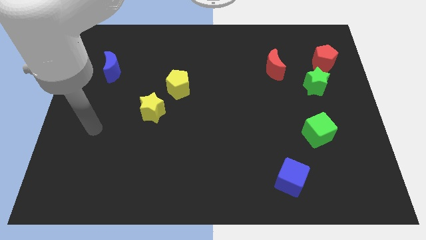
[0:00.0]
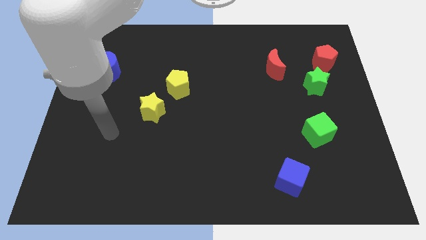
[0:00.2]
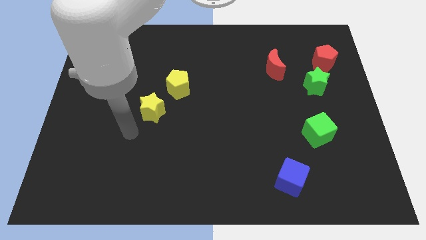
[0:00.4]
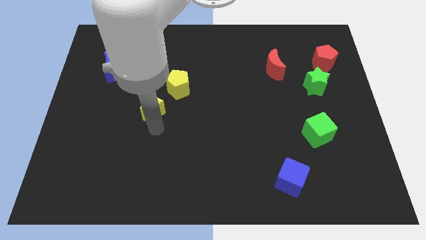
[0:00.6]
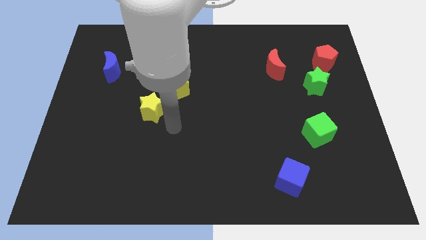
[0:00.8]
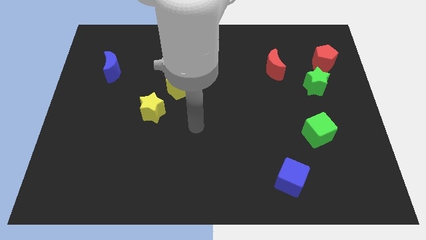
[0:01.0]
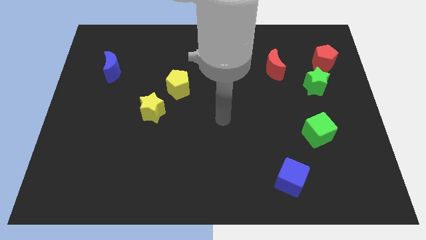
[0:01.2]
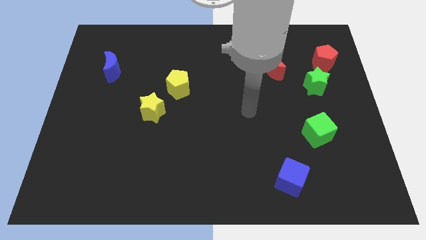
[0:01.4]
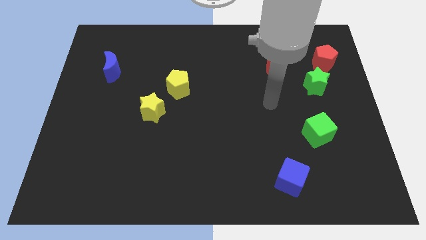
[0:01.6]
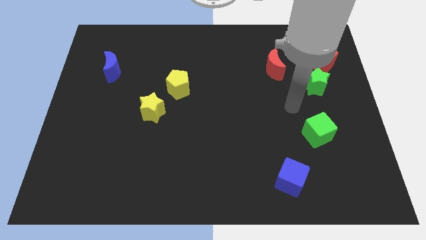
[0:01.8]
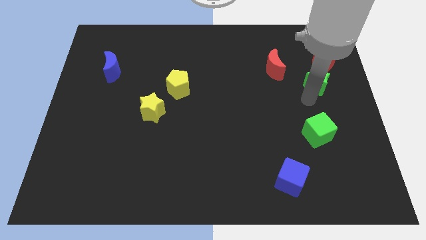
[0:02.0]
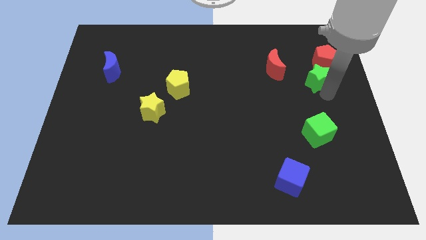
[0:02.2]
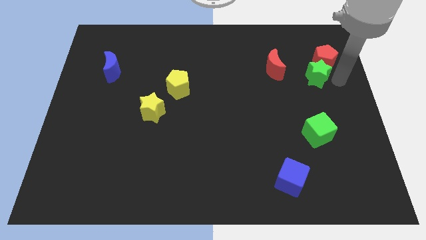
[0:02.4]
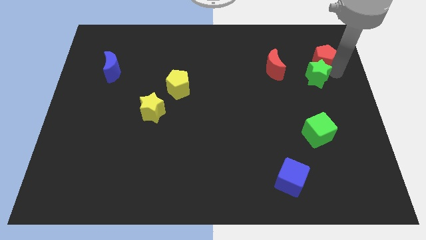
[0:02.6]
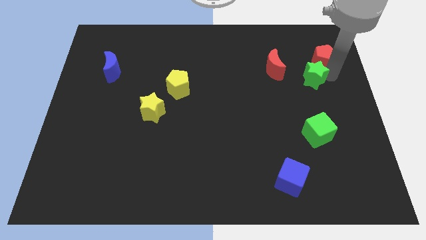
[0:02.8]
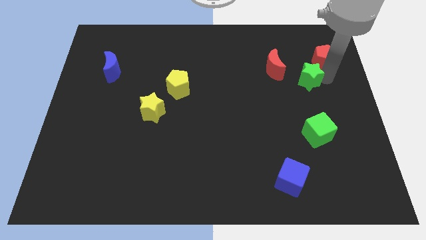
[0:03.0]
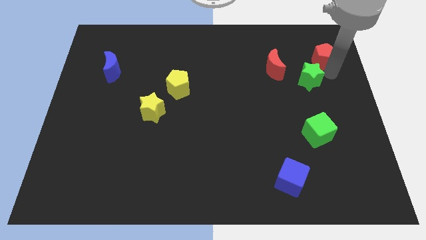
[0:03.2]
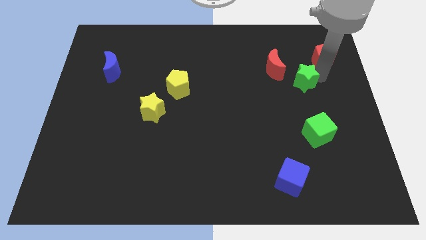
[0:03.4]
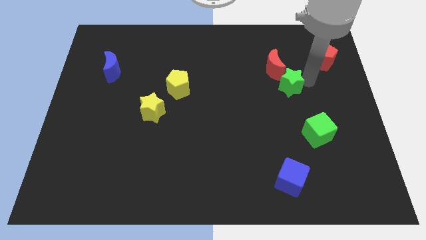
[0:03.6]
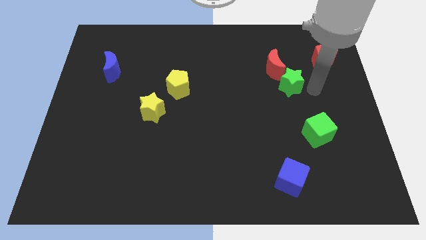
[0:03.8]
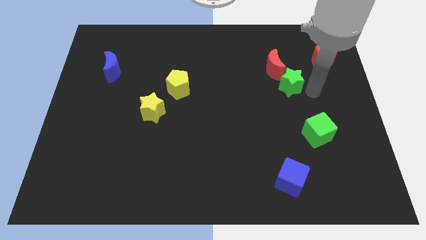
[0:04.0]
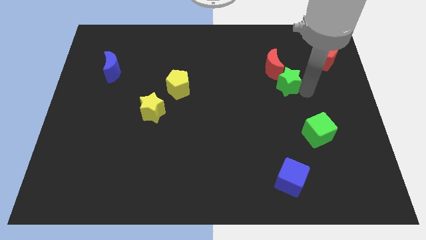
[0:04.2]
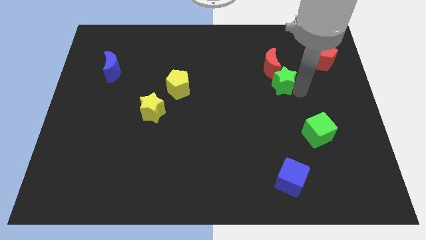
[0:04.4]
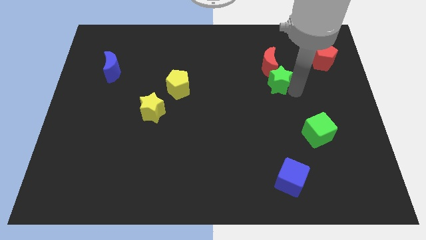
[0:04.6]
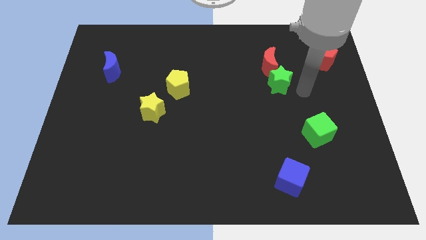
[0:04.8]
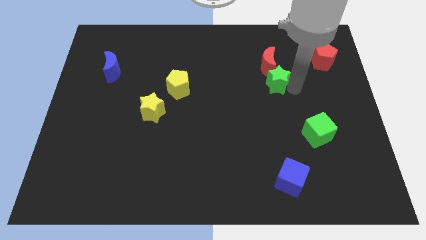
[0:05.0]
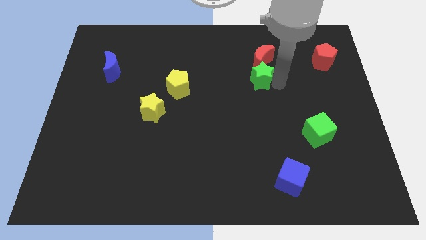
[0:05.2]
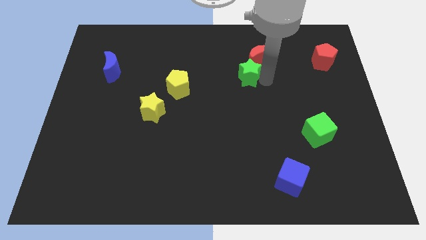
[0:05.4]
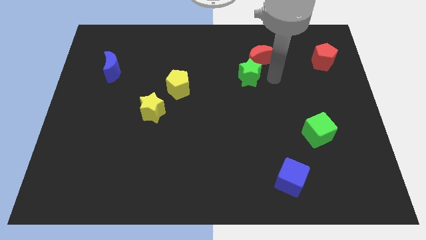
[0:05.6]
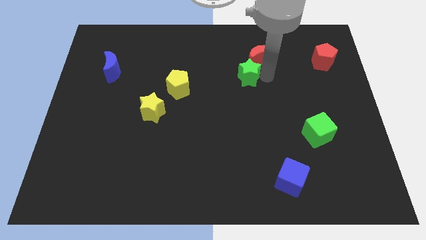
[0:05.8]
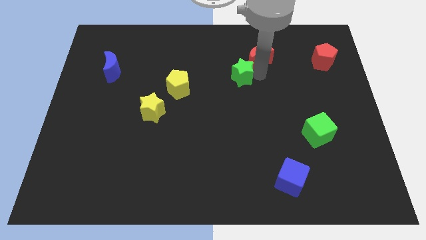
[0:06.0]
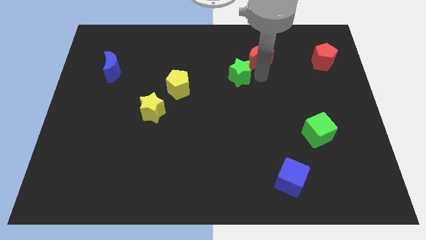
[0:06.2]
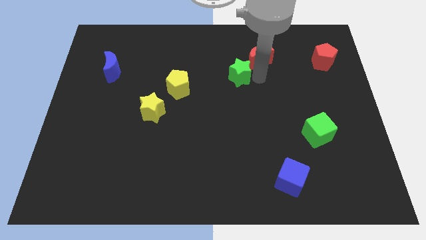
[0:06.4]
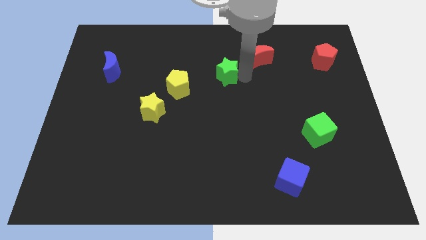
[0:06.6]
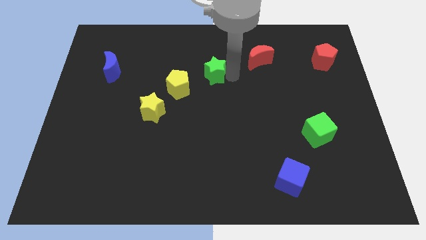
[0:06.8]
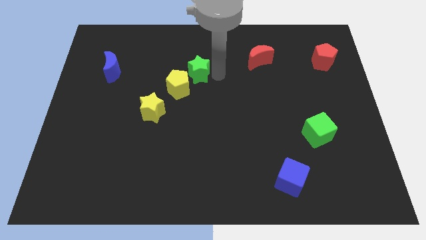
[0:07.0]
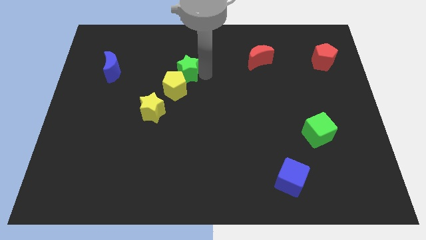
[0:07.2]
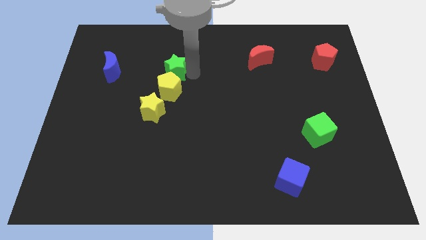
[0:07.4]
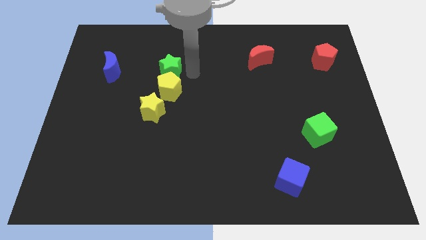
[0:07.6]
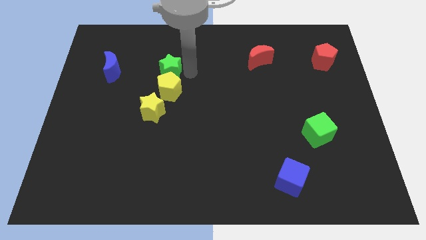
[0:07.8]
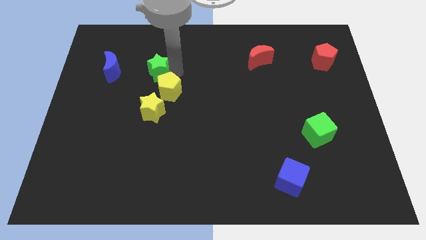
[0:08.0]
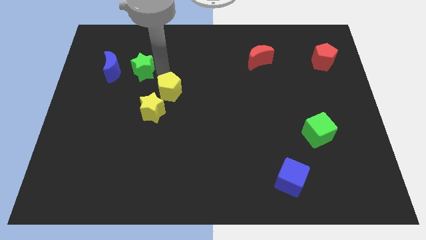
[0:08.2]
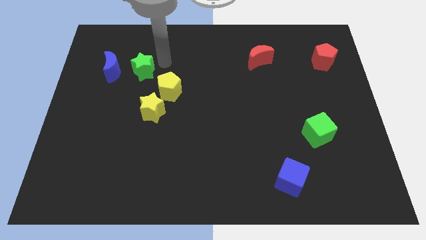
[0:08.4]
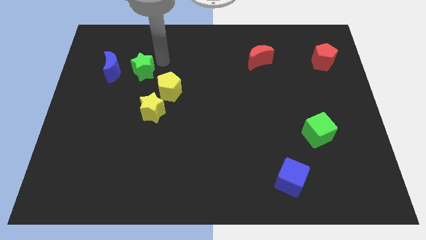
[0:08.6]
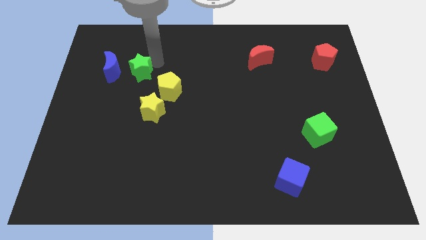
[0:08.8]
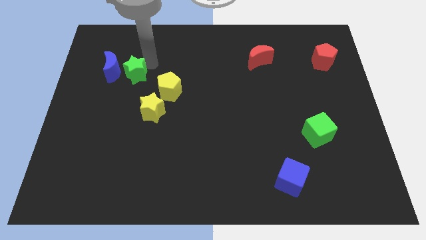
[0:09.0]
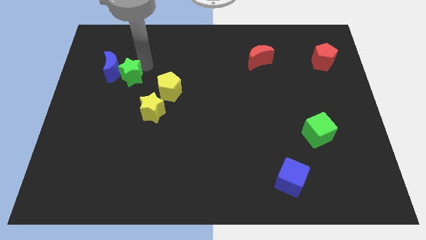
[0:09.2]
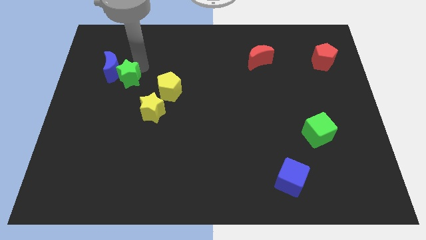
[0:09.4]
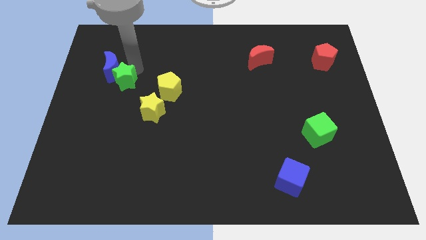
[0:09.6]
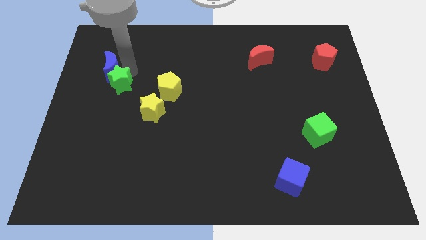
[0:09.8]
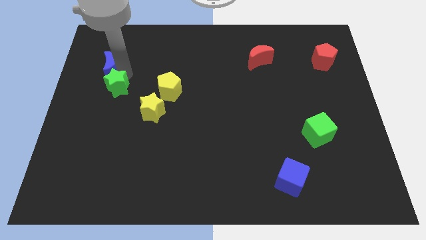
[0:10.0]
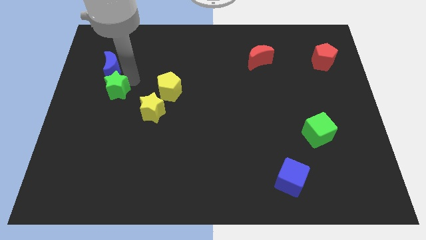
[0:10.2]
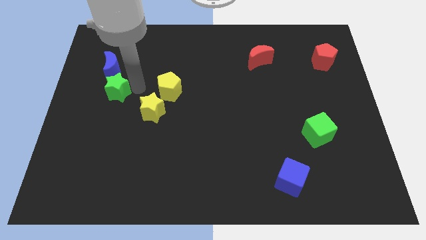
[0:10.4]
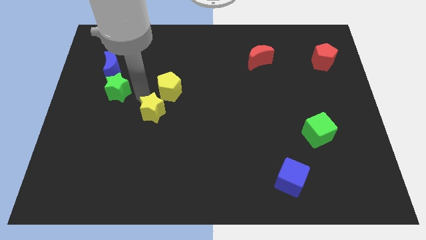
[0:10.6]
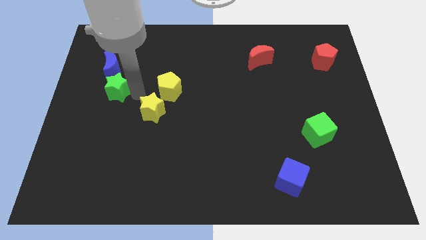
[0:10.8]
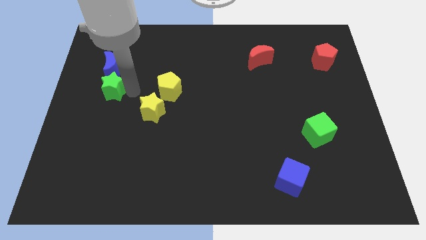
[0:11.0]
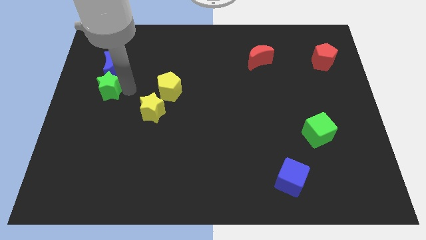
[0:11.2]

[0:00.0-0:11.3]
put the green star to the center left

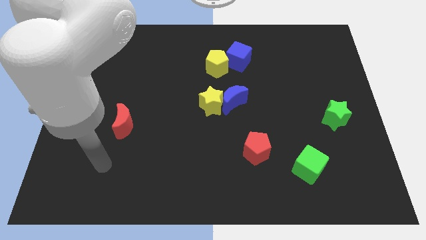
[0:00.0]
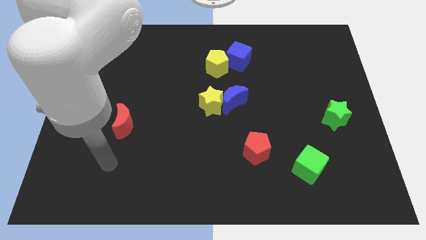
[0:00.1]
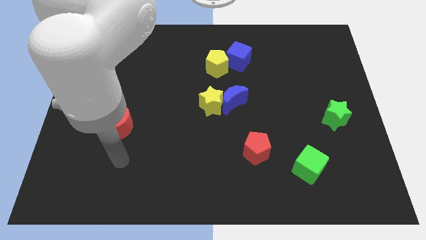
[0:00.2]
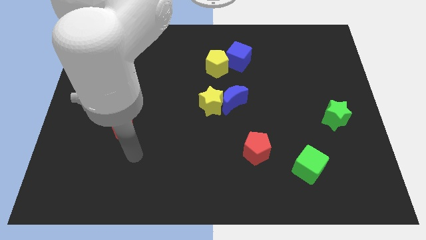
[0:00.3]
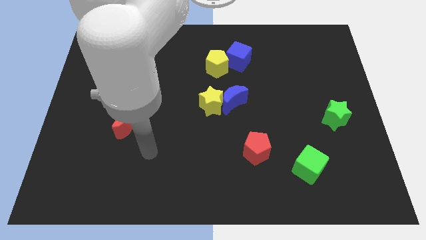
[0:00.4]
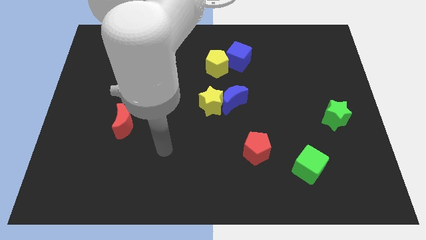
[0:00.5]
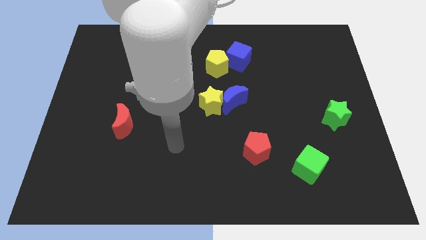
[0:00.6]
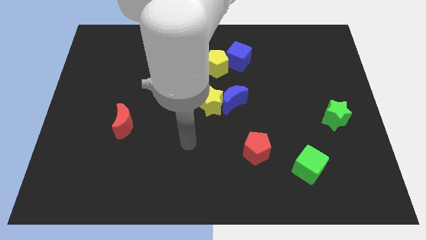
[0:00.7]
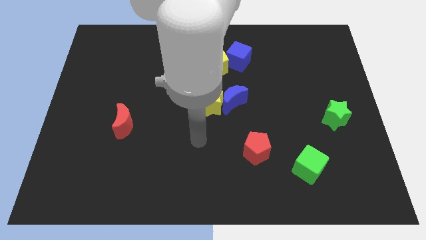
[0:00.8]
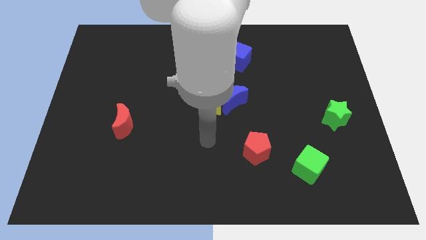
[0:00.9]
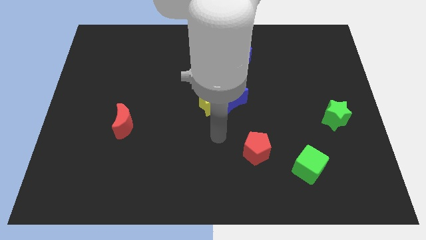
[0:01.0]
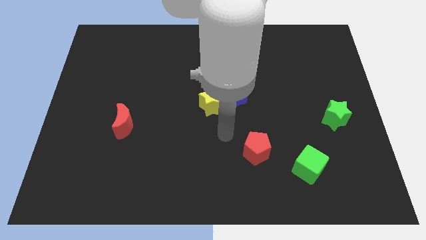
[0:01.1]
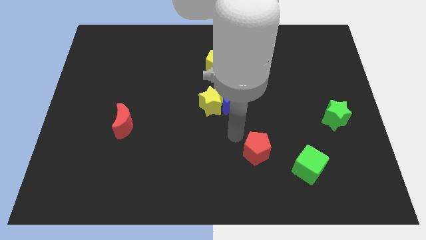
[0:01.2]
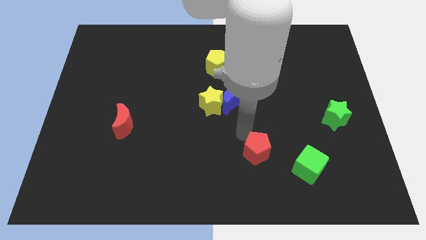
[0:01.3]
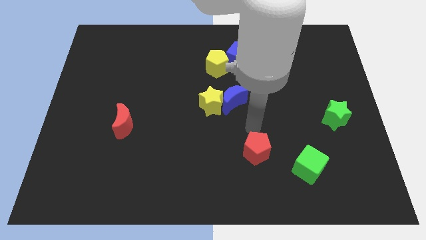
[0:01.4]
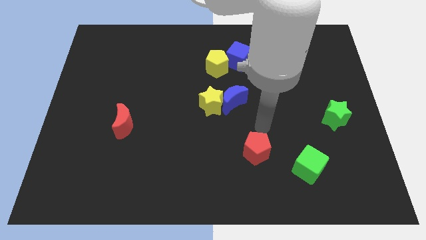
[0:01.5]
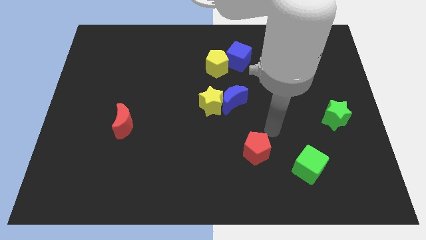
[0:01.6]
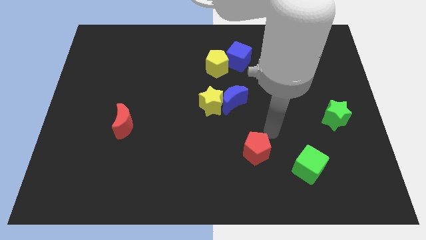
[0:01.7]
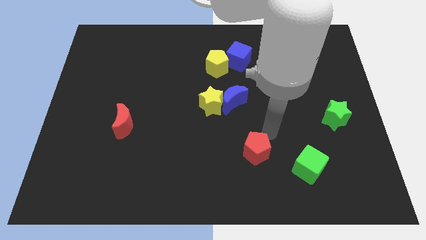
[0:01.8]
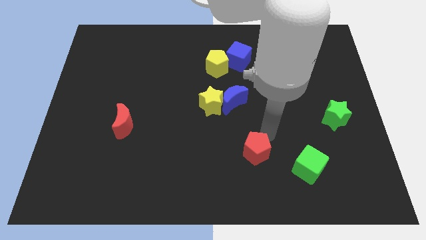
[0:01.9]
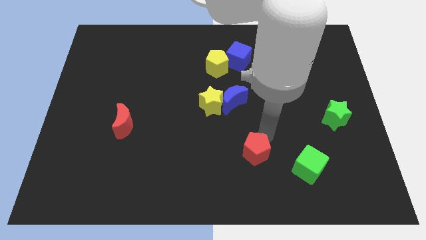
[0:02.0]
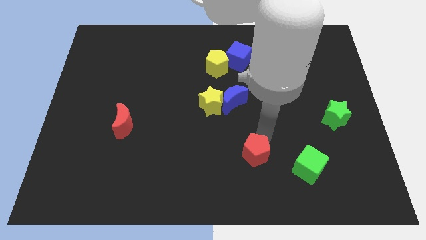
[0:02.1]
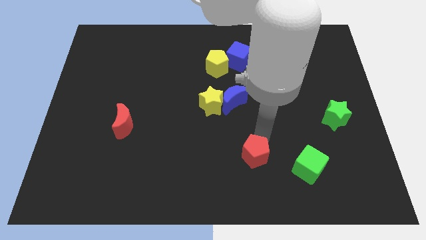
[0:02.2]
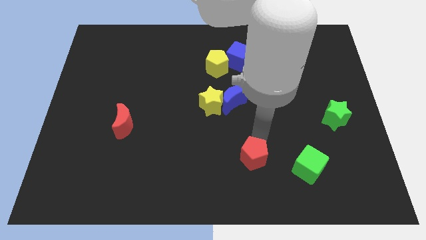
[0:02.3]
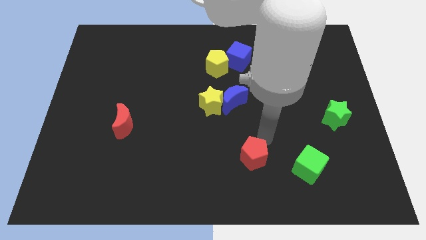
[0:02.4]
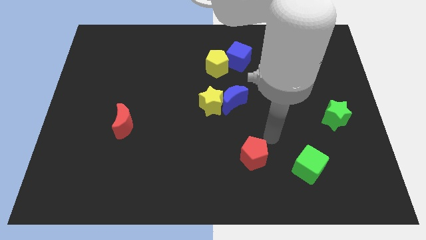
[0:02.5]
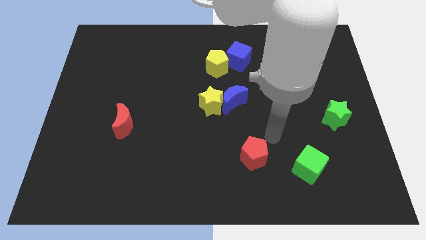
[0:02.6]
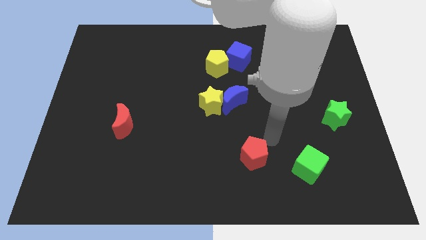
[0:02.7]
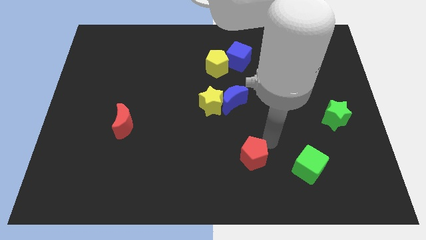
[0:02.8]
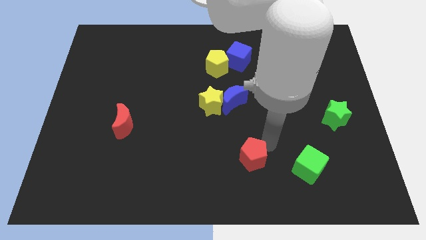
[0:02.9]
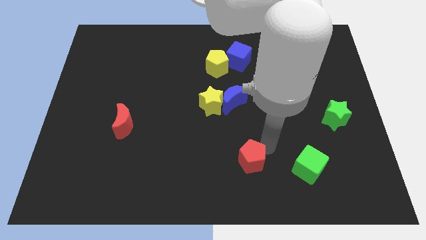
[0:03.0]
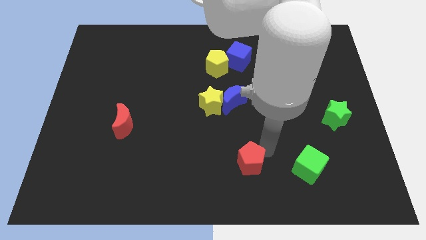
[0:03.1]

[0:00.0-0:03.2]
put the red pentagon to the bottom
